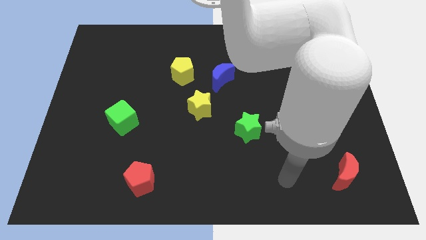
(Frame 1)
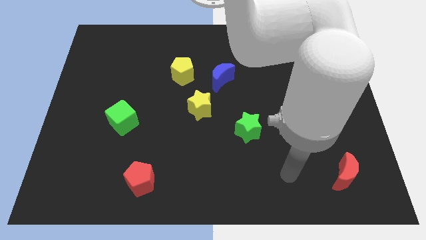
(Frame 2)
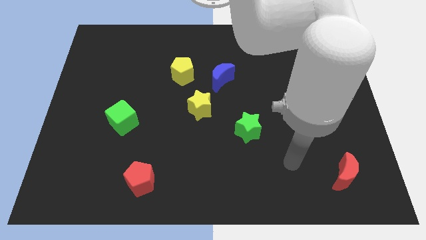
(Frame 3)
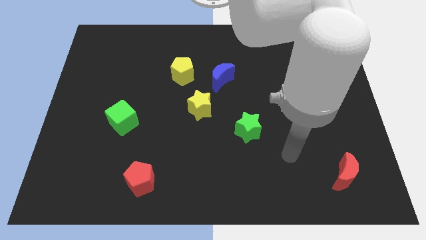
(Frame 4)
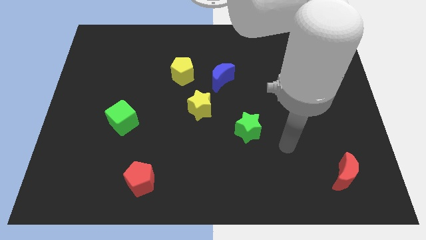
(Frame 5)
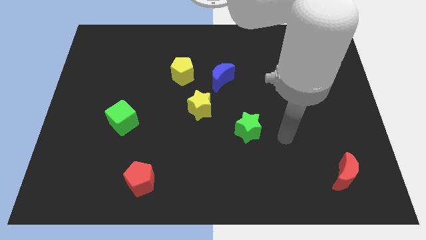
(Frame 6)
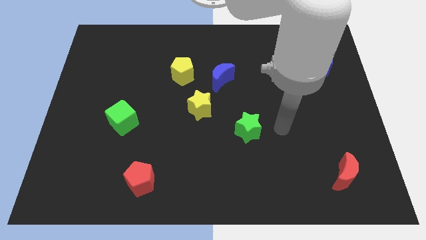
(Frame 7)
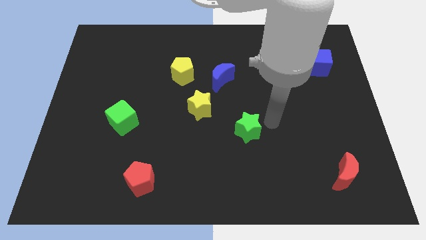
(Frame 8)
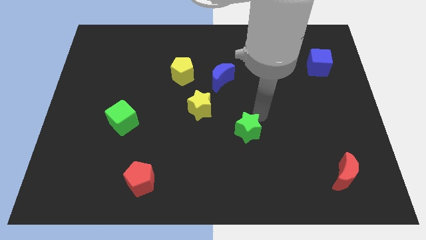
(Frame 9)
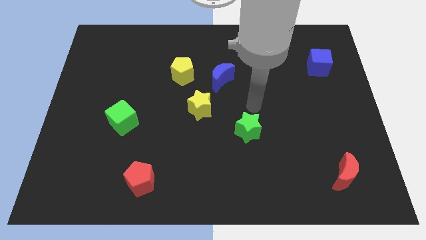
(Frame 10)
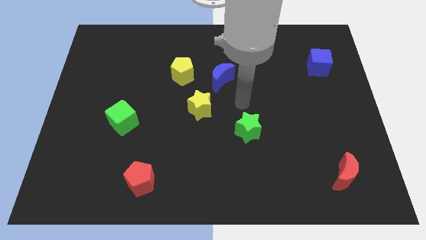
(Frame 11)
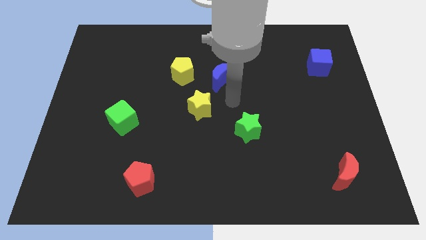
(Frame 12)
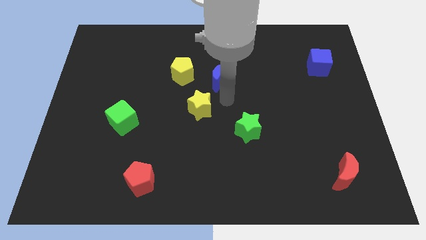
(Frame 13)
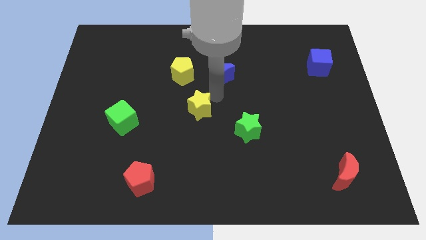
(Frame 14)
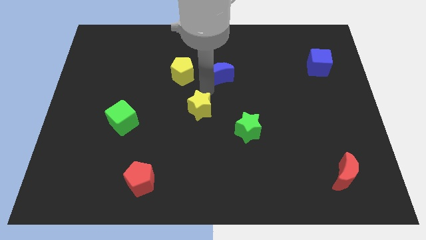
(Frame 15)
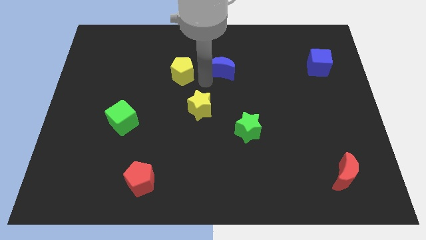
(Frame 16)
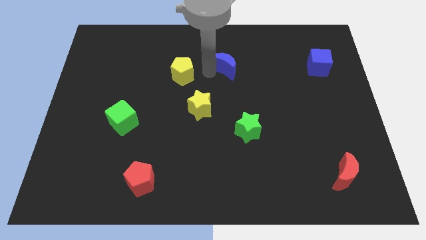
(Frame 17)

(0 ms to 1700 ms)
pull the yellow pentagon apart from the blue moon

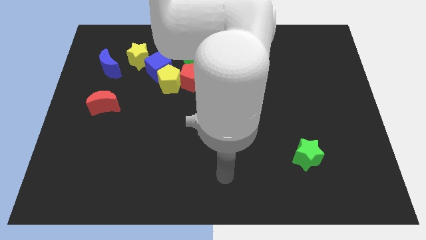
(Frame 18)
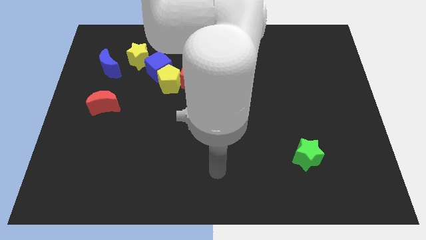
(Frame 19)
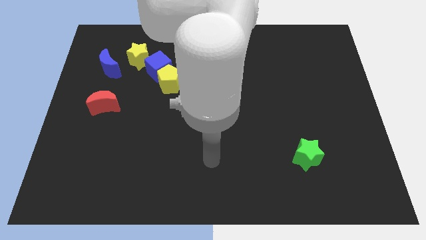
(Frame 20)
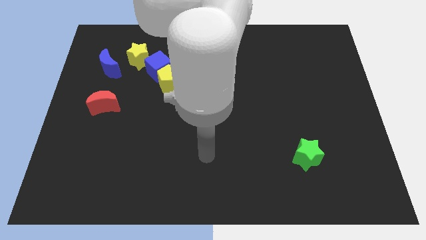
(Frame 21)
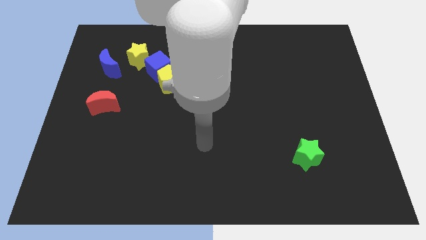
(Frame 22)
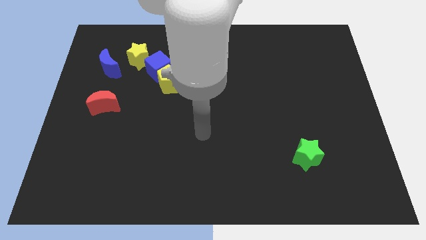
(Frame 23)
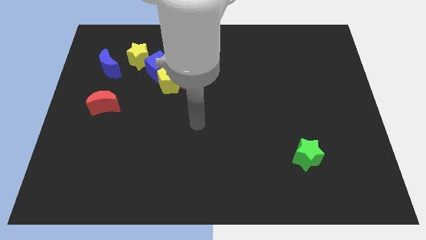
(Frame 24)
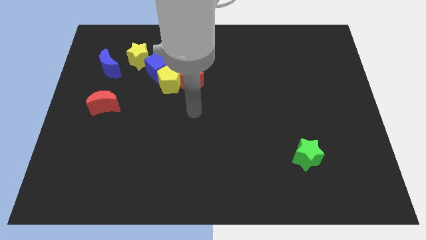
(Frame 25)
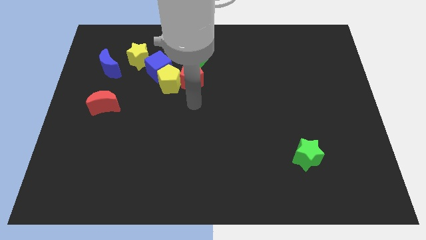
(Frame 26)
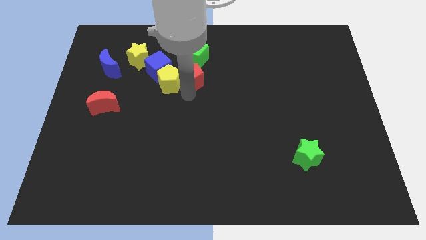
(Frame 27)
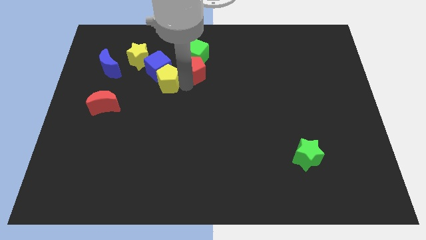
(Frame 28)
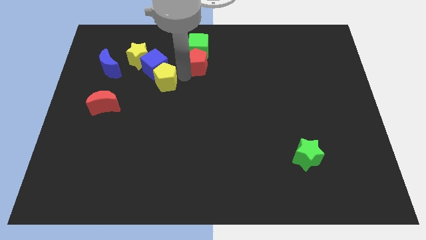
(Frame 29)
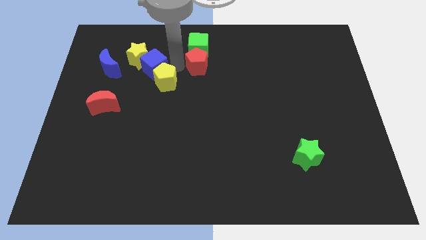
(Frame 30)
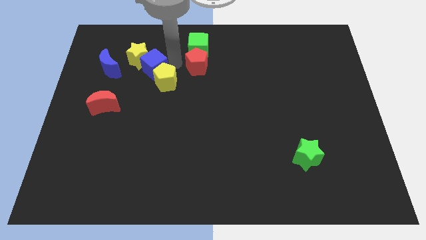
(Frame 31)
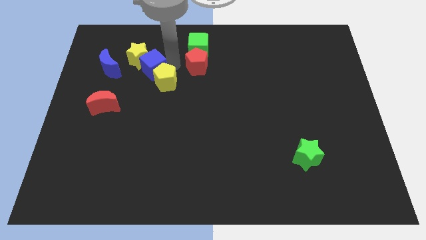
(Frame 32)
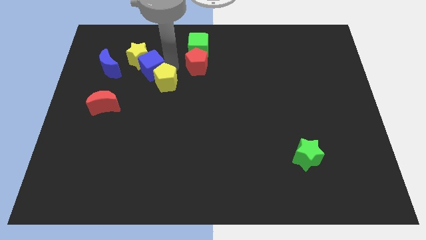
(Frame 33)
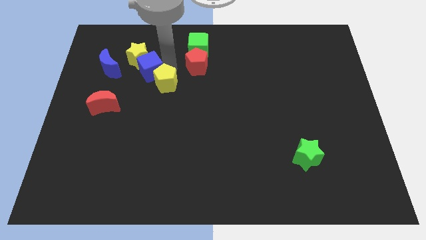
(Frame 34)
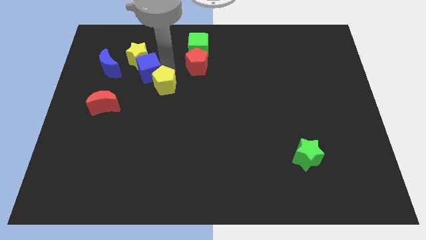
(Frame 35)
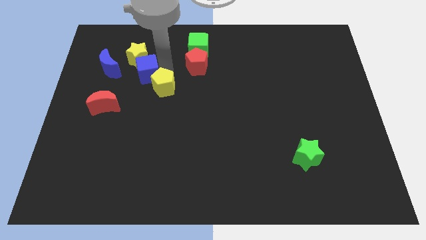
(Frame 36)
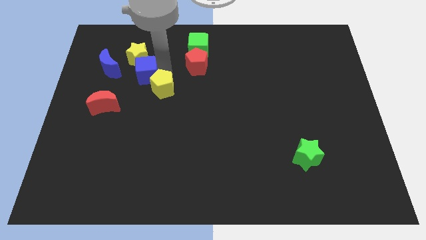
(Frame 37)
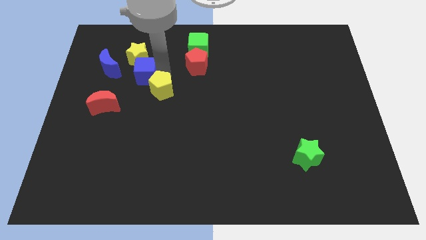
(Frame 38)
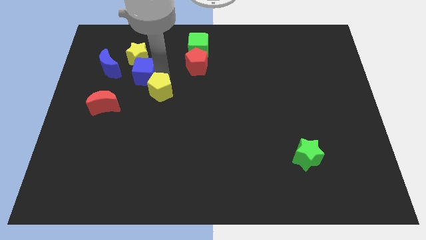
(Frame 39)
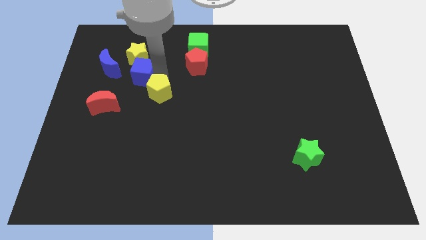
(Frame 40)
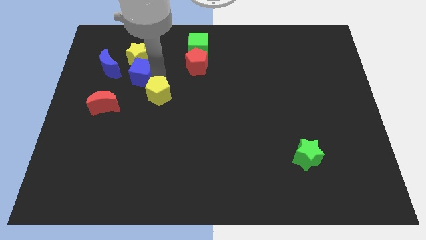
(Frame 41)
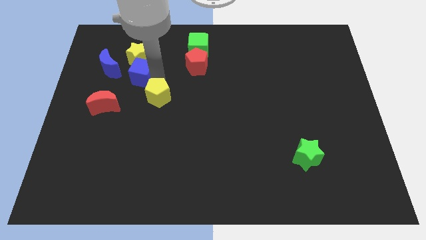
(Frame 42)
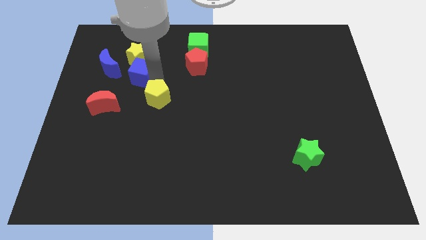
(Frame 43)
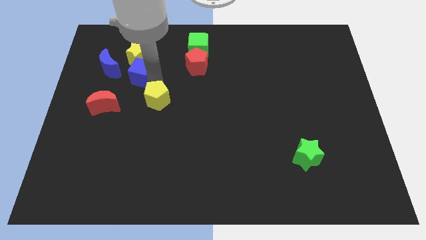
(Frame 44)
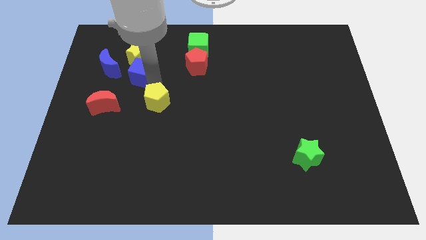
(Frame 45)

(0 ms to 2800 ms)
move the yellow pentagon away from the blue cube and red pentagon

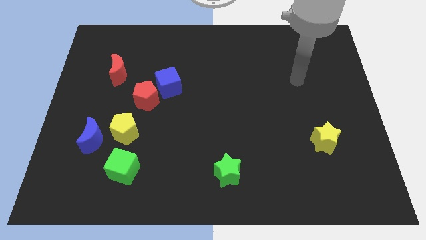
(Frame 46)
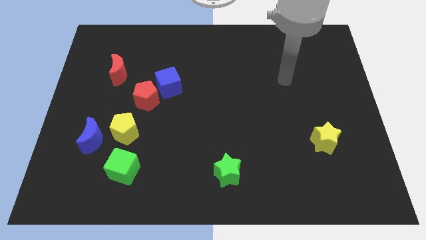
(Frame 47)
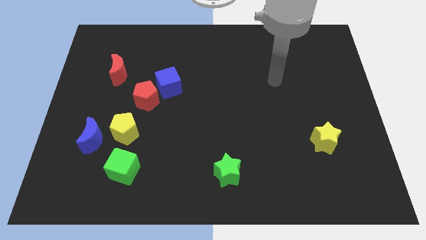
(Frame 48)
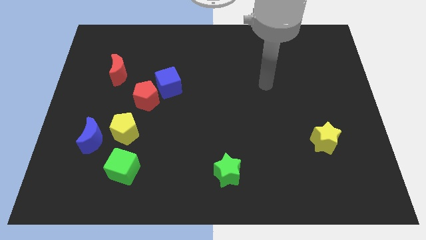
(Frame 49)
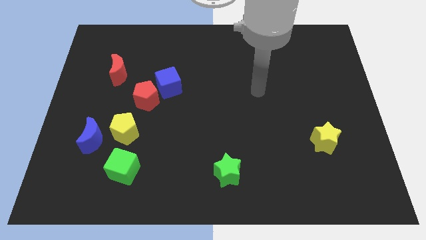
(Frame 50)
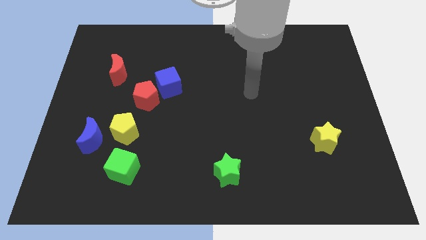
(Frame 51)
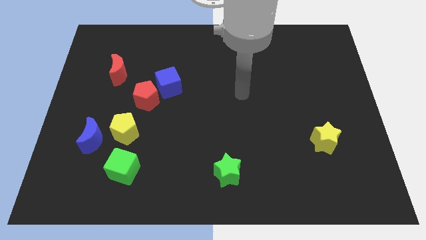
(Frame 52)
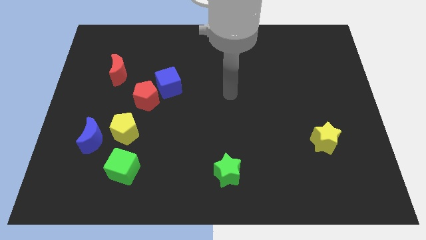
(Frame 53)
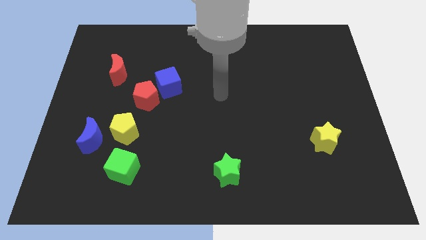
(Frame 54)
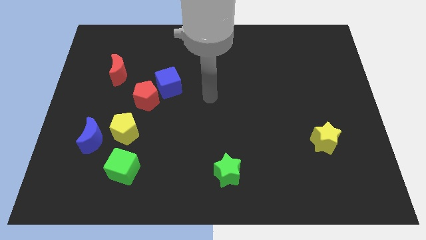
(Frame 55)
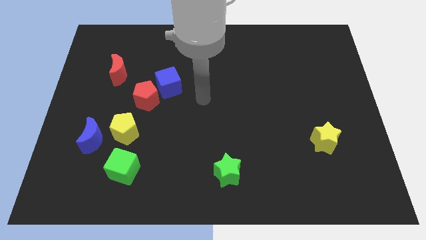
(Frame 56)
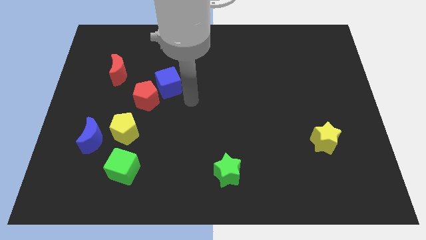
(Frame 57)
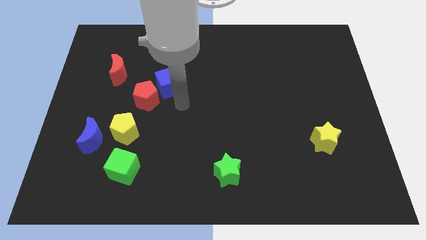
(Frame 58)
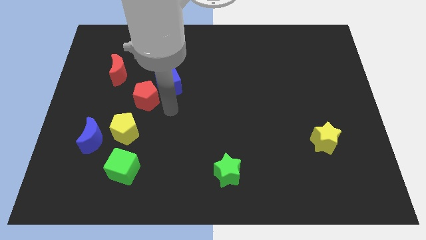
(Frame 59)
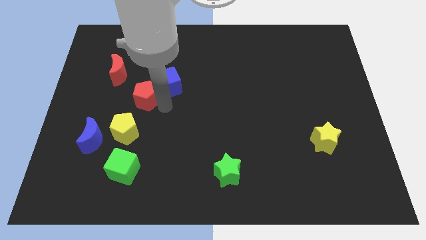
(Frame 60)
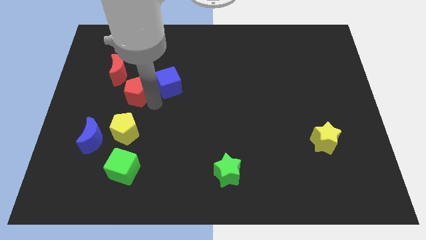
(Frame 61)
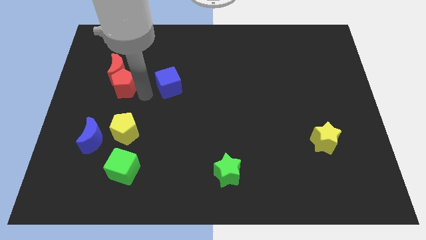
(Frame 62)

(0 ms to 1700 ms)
pull the blue cube apart from the red pentagon

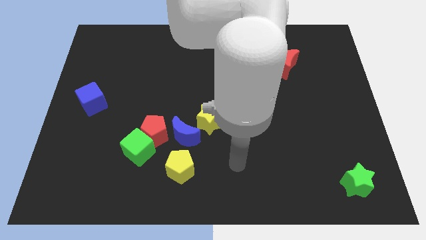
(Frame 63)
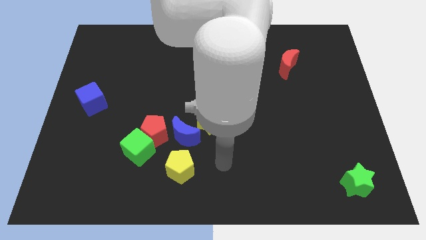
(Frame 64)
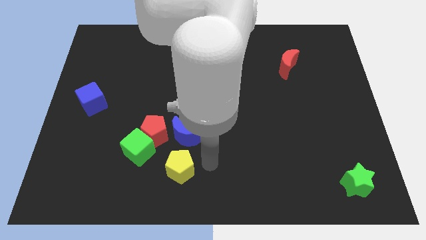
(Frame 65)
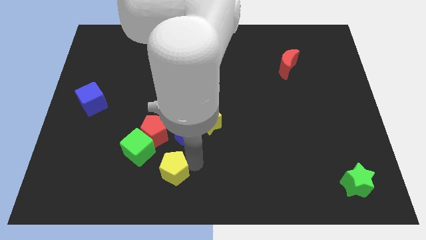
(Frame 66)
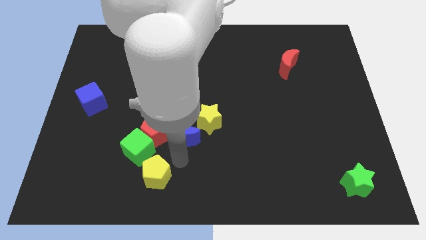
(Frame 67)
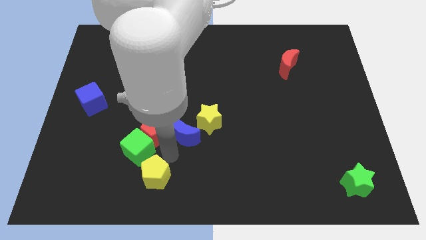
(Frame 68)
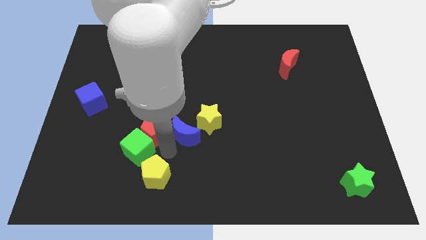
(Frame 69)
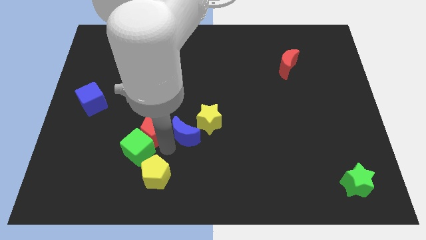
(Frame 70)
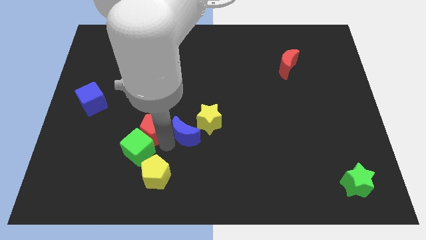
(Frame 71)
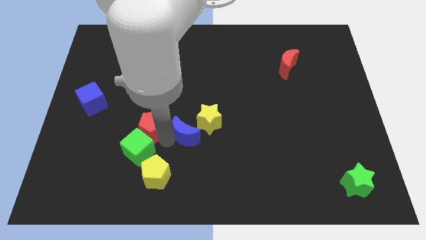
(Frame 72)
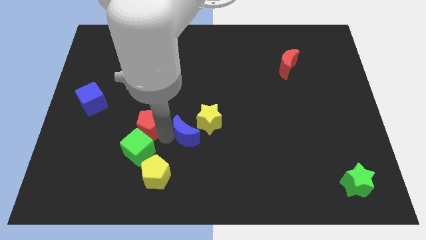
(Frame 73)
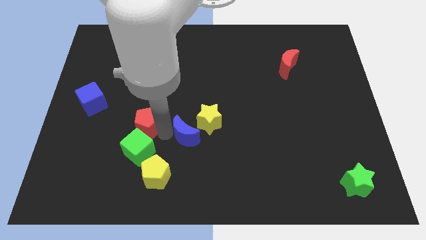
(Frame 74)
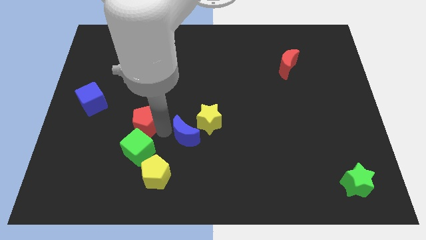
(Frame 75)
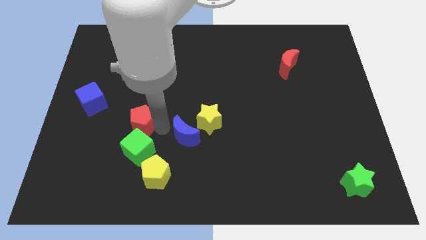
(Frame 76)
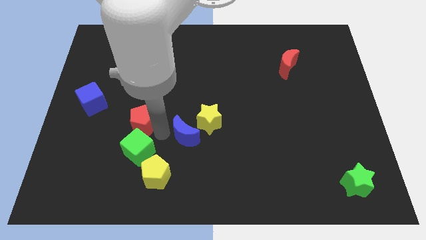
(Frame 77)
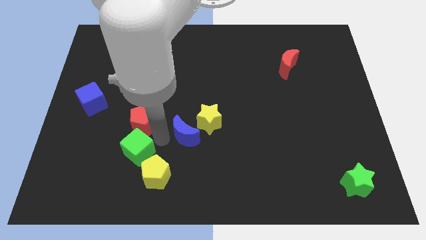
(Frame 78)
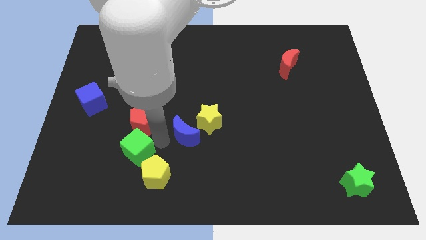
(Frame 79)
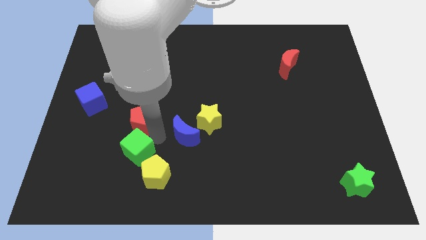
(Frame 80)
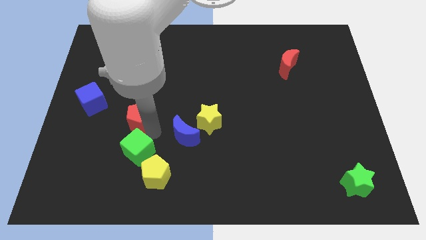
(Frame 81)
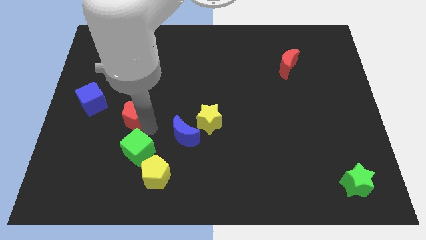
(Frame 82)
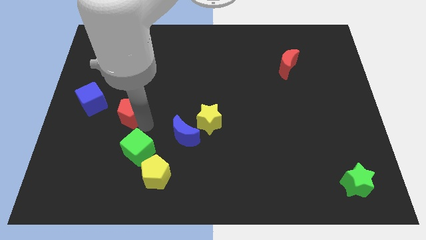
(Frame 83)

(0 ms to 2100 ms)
pull the red pentagon apart from the green cube and blue moon

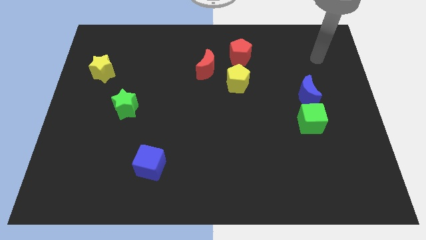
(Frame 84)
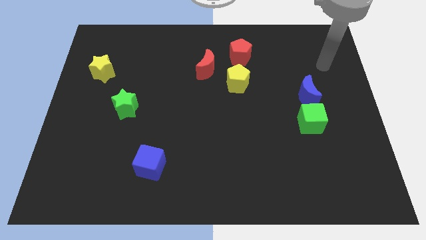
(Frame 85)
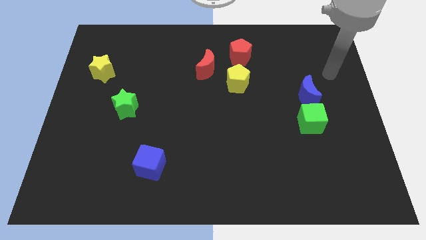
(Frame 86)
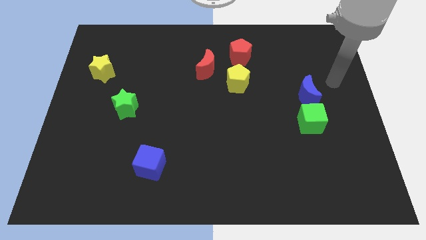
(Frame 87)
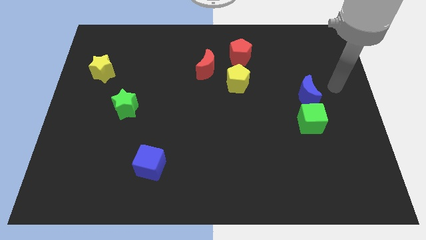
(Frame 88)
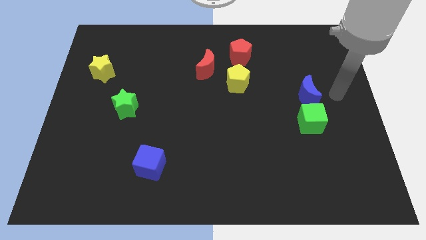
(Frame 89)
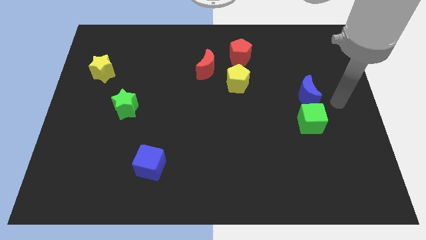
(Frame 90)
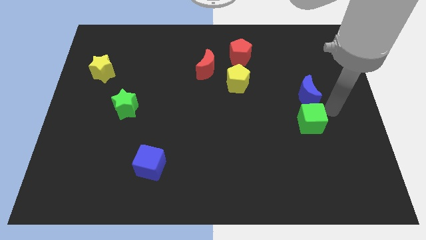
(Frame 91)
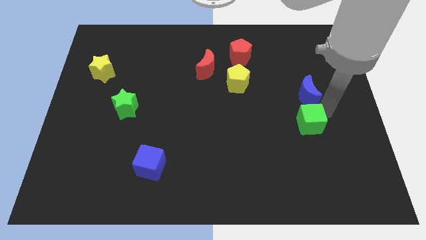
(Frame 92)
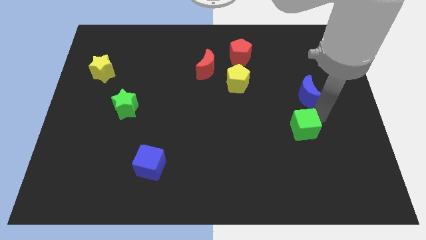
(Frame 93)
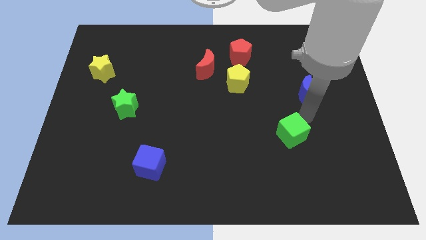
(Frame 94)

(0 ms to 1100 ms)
pull the blue moon apart from the green cube
